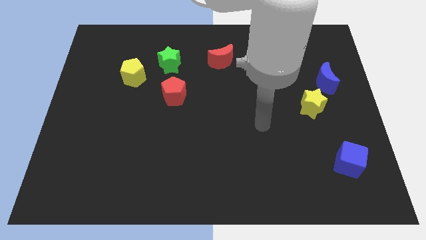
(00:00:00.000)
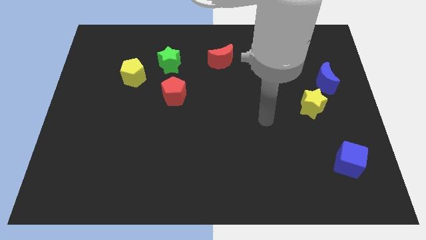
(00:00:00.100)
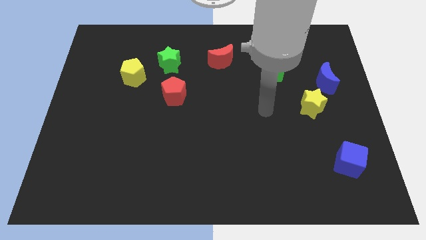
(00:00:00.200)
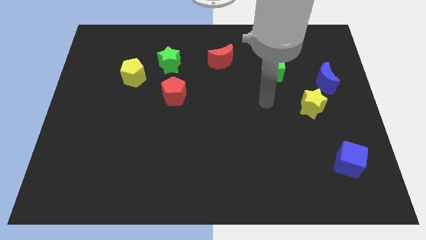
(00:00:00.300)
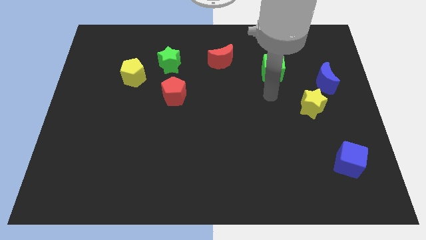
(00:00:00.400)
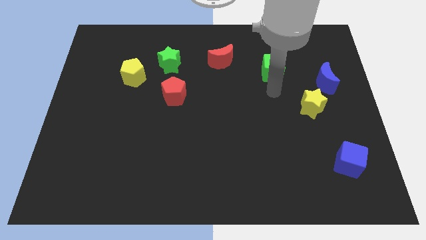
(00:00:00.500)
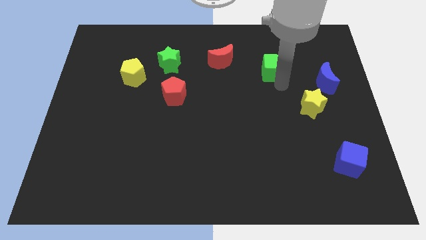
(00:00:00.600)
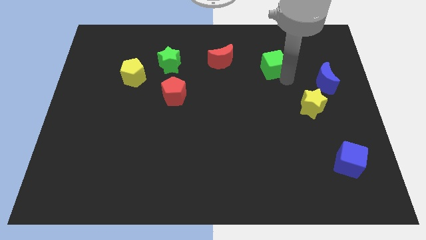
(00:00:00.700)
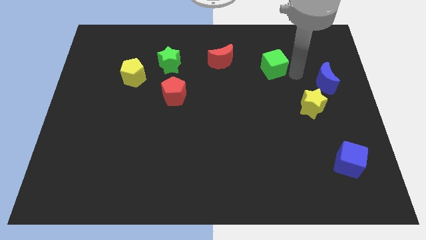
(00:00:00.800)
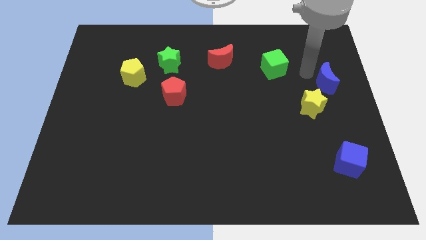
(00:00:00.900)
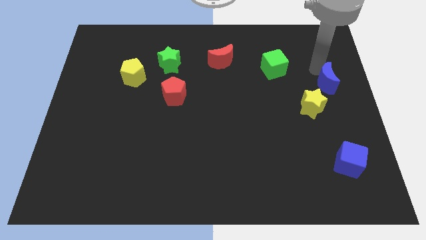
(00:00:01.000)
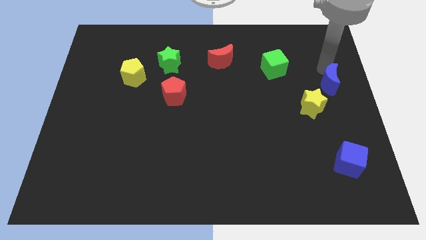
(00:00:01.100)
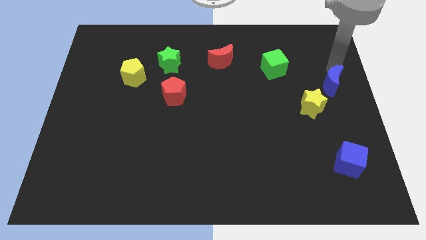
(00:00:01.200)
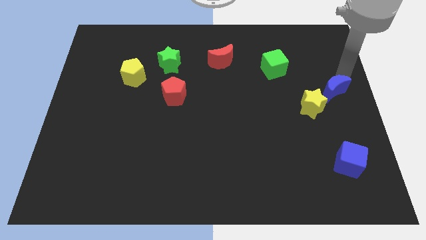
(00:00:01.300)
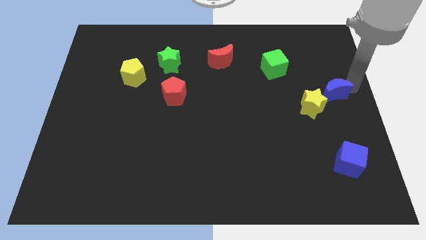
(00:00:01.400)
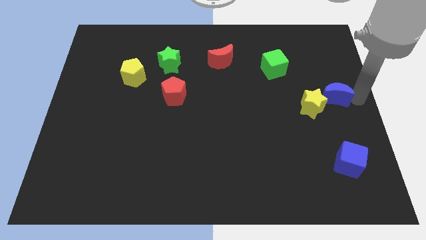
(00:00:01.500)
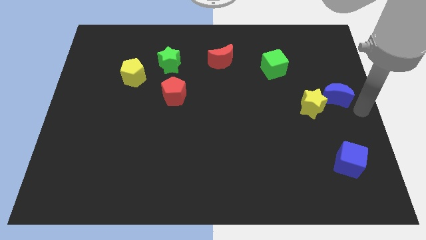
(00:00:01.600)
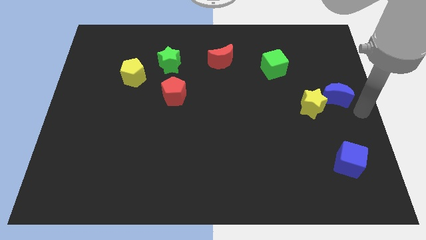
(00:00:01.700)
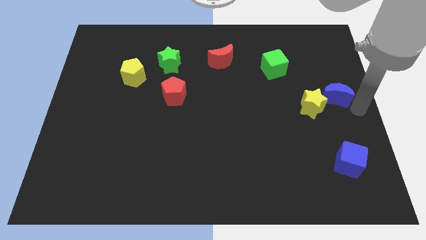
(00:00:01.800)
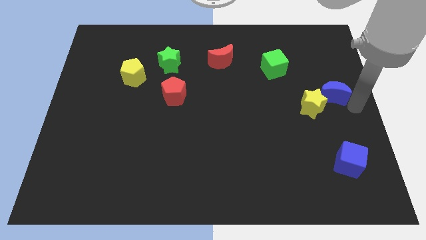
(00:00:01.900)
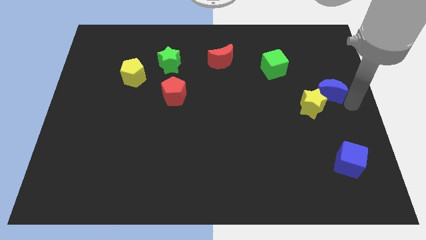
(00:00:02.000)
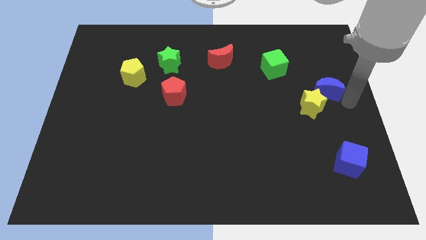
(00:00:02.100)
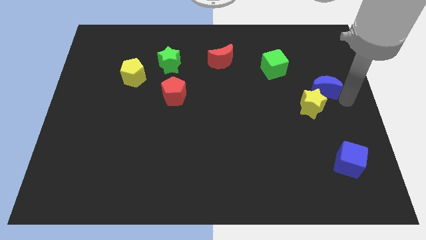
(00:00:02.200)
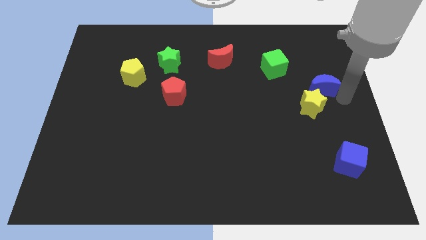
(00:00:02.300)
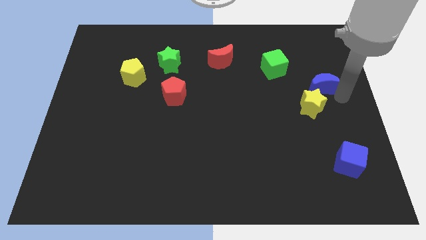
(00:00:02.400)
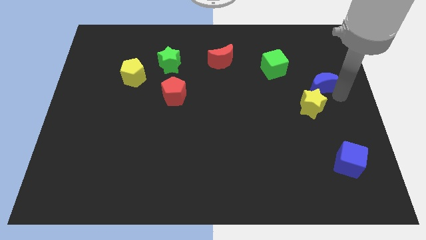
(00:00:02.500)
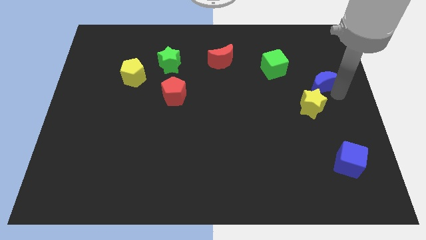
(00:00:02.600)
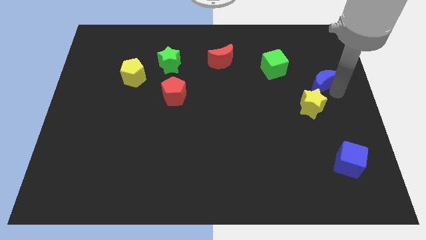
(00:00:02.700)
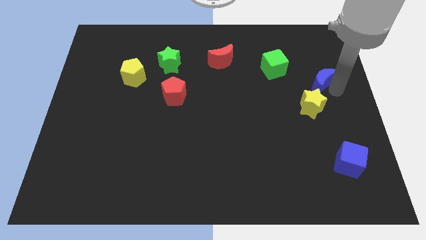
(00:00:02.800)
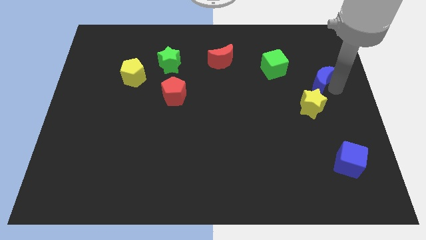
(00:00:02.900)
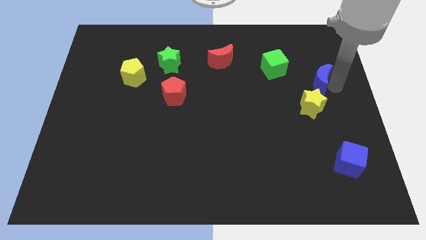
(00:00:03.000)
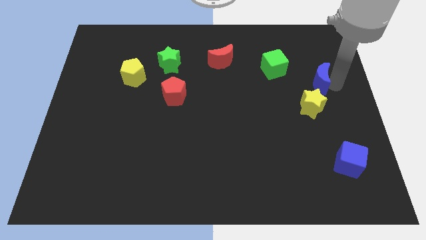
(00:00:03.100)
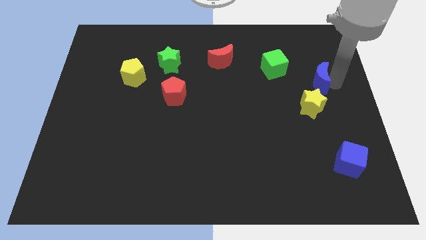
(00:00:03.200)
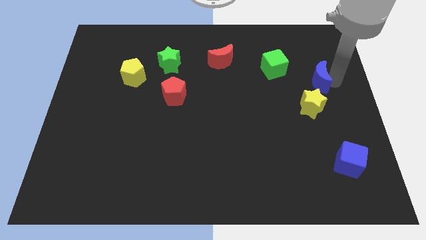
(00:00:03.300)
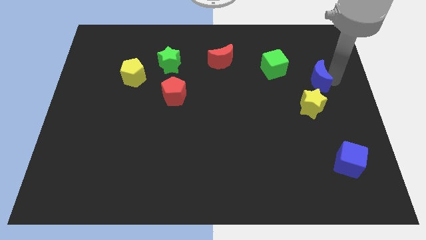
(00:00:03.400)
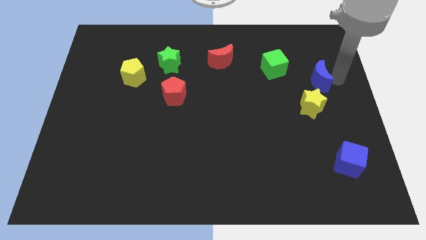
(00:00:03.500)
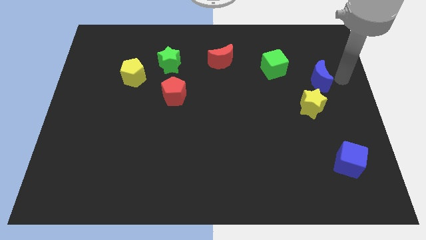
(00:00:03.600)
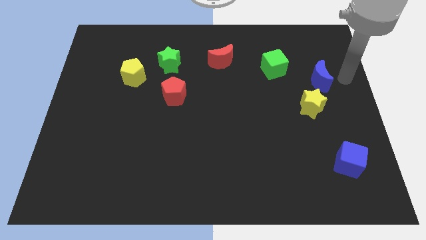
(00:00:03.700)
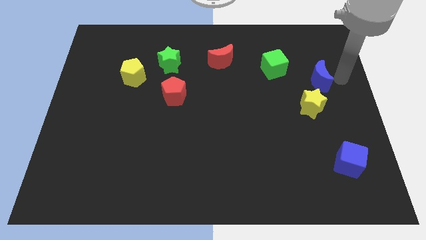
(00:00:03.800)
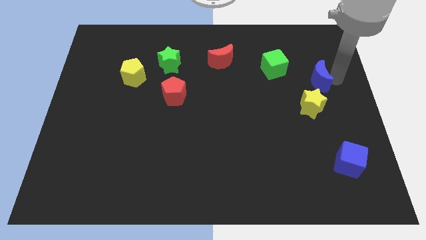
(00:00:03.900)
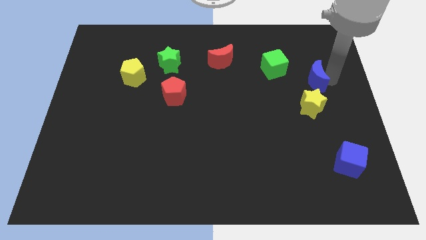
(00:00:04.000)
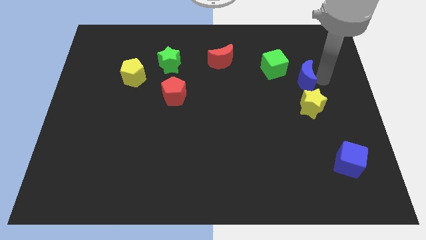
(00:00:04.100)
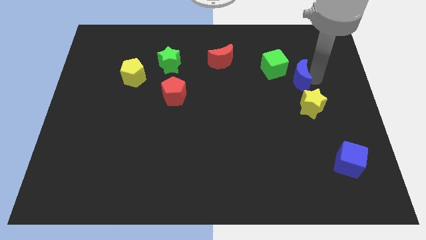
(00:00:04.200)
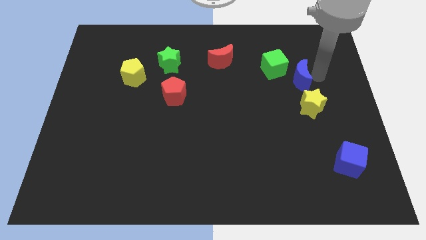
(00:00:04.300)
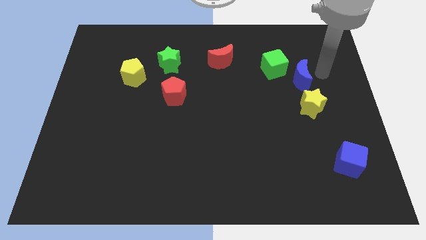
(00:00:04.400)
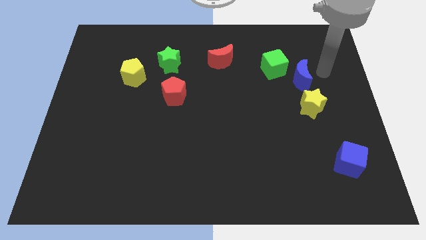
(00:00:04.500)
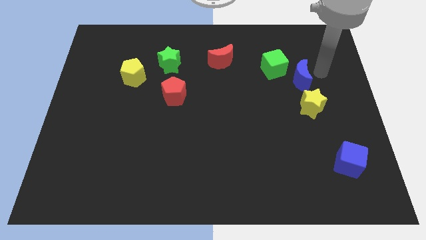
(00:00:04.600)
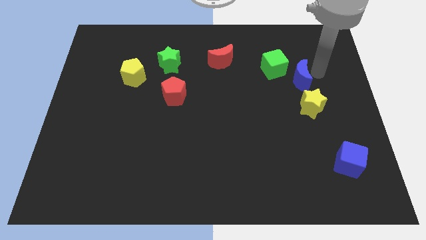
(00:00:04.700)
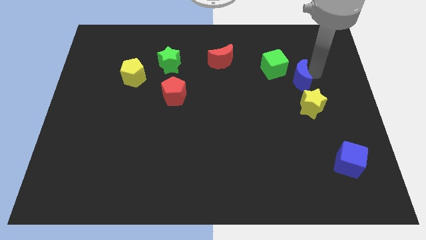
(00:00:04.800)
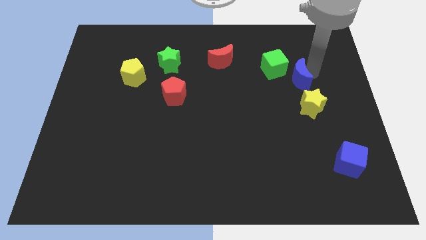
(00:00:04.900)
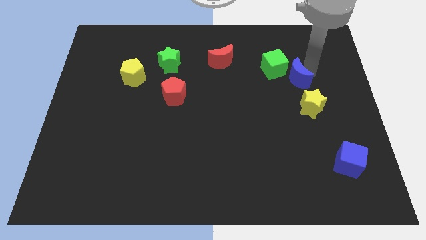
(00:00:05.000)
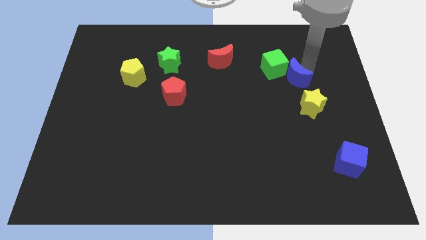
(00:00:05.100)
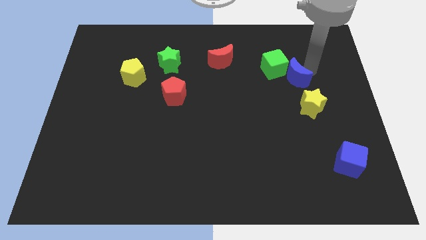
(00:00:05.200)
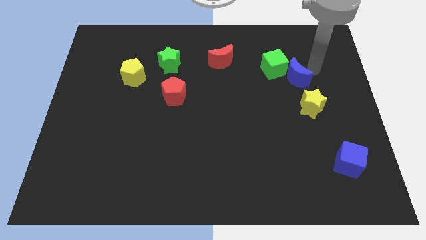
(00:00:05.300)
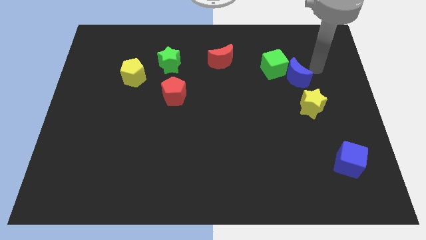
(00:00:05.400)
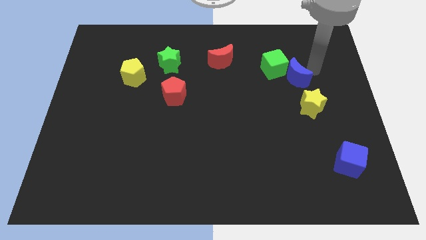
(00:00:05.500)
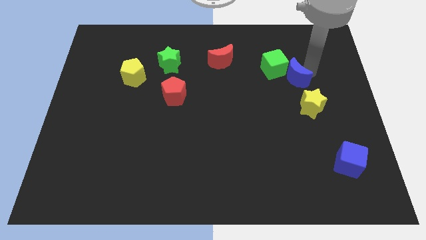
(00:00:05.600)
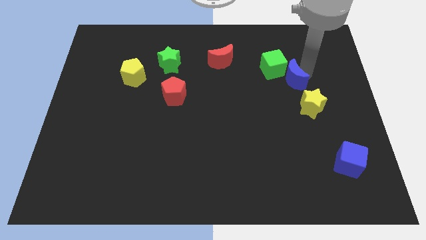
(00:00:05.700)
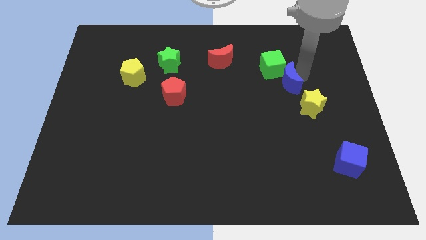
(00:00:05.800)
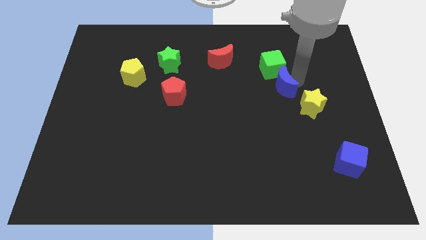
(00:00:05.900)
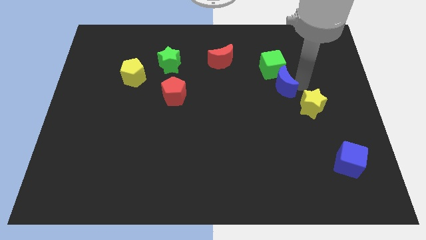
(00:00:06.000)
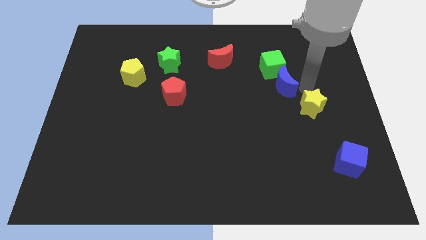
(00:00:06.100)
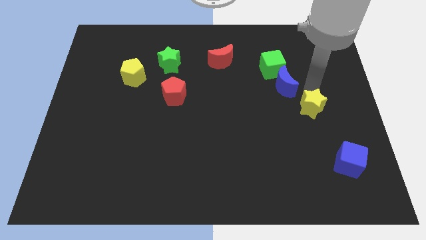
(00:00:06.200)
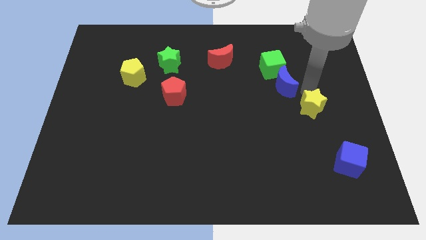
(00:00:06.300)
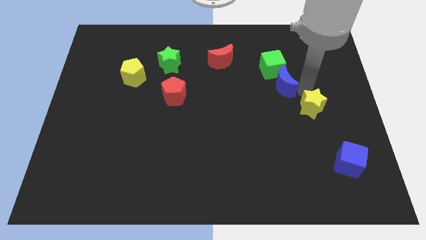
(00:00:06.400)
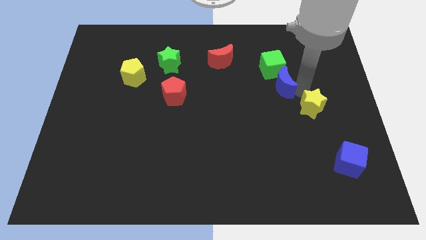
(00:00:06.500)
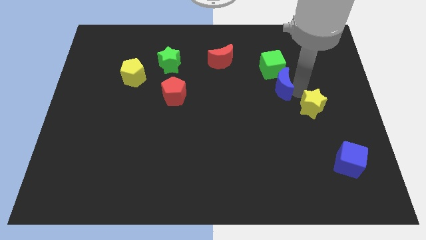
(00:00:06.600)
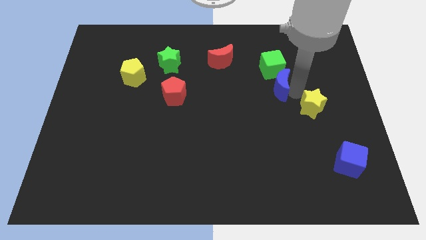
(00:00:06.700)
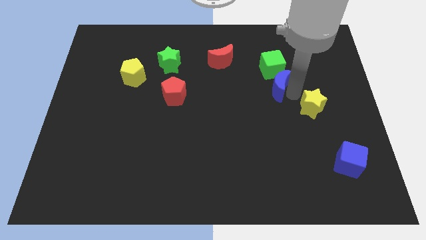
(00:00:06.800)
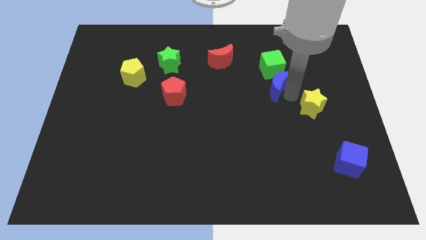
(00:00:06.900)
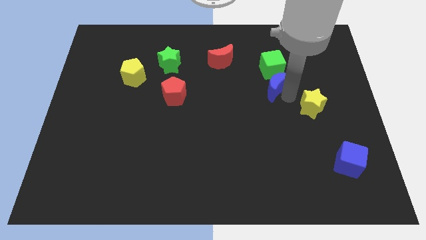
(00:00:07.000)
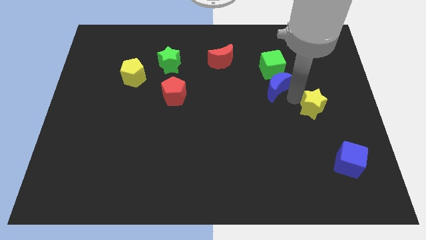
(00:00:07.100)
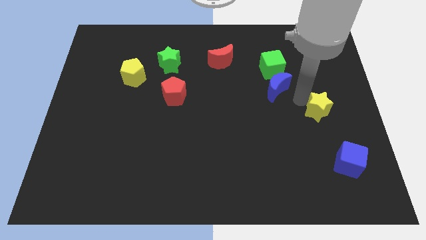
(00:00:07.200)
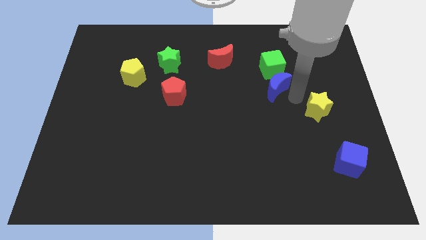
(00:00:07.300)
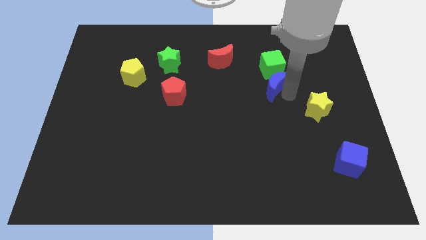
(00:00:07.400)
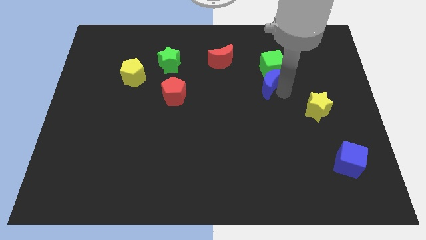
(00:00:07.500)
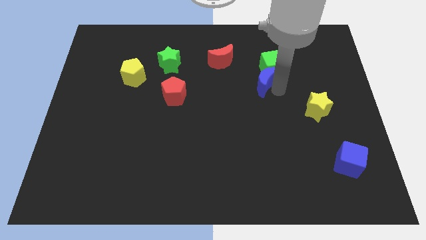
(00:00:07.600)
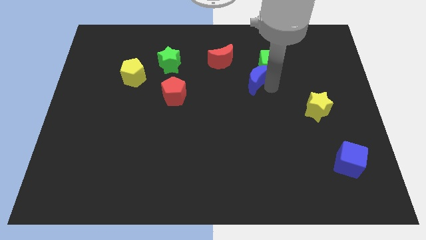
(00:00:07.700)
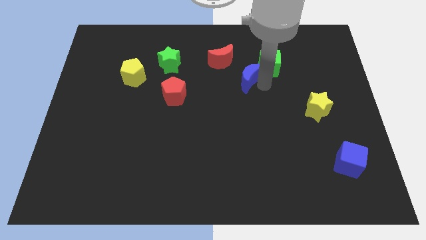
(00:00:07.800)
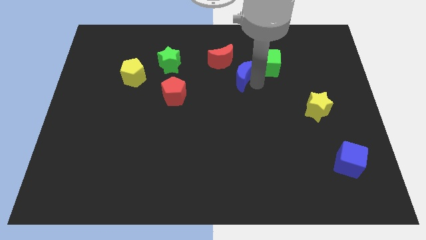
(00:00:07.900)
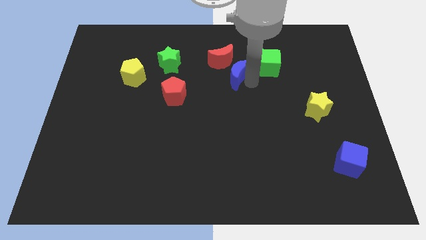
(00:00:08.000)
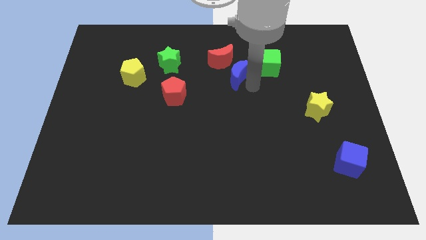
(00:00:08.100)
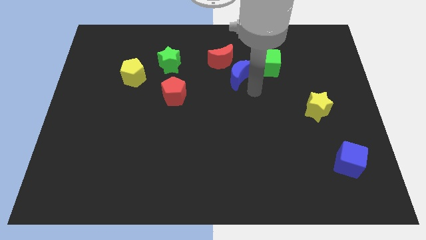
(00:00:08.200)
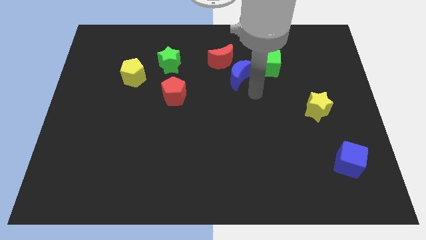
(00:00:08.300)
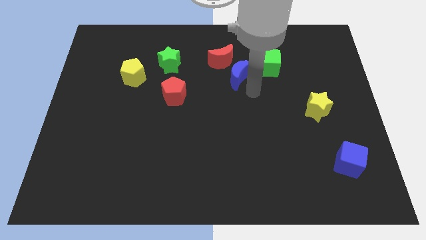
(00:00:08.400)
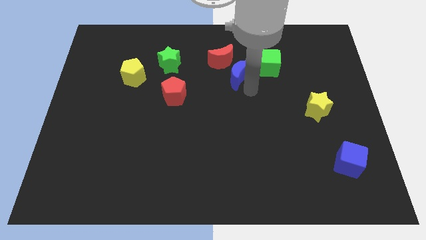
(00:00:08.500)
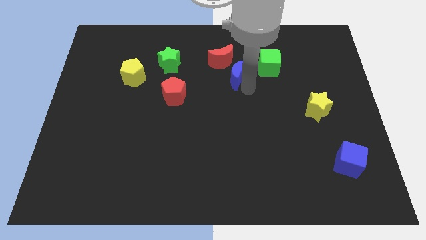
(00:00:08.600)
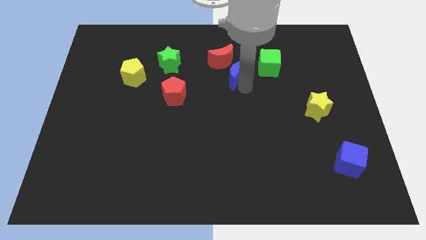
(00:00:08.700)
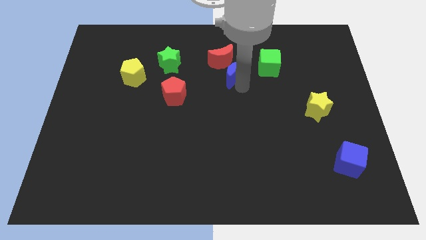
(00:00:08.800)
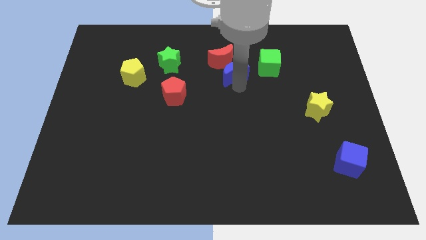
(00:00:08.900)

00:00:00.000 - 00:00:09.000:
put the blue moon towards the red moon
